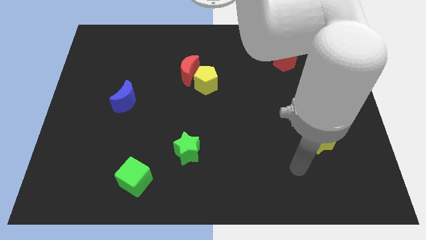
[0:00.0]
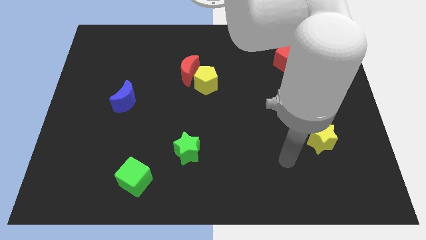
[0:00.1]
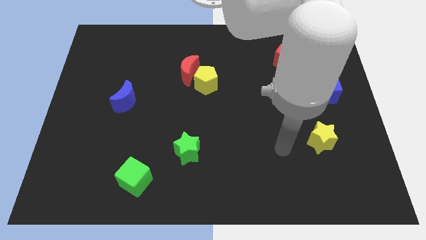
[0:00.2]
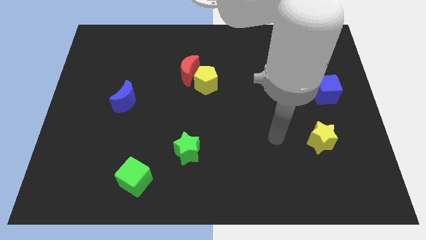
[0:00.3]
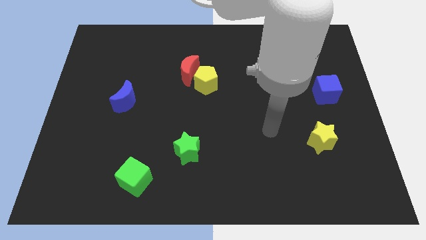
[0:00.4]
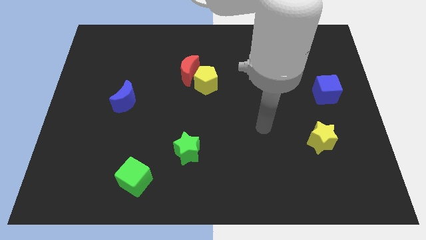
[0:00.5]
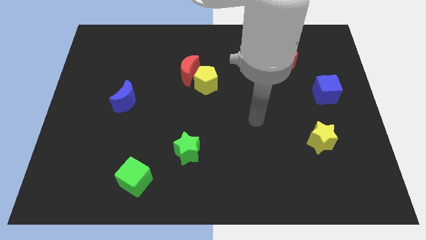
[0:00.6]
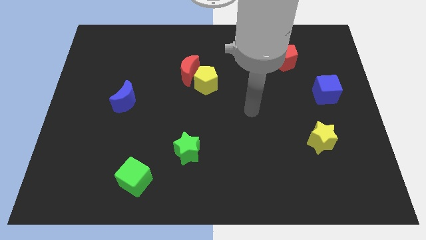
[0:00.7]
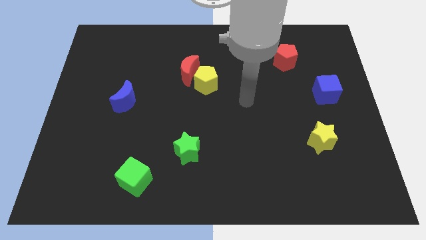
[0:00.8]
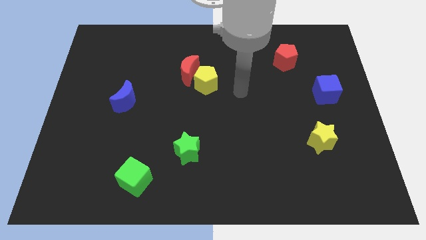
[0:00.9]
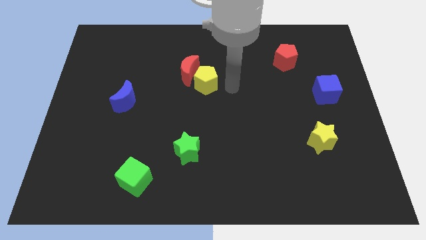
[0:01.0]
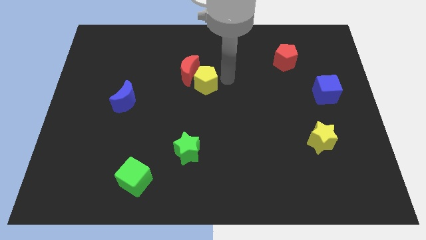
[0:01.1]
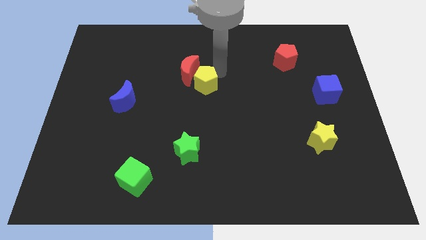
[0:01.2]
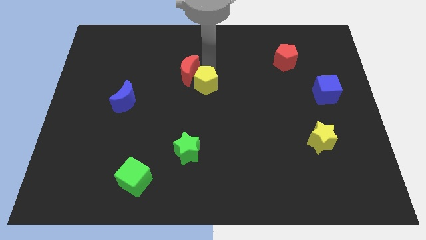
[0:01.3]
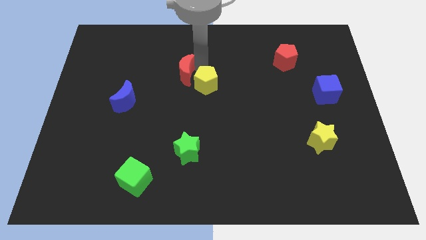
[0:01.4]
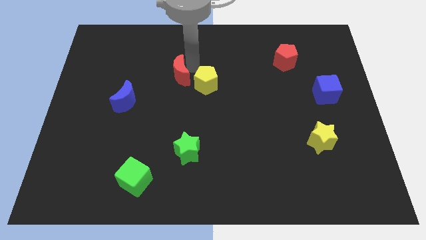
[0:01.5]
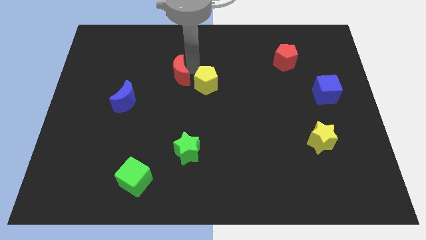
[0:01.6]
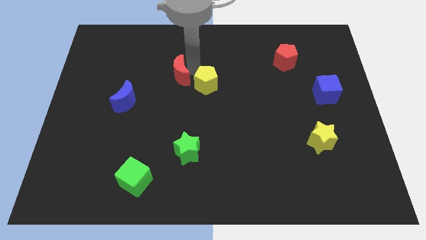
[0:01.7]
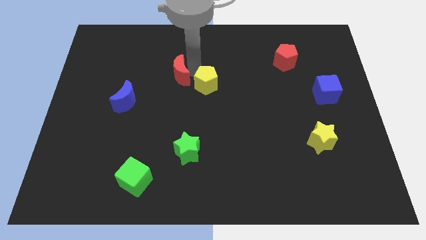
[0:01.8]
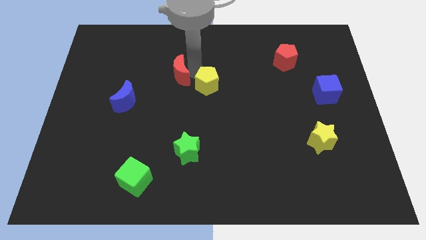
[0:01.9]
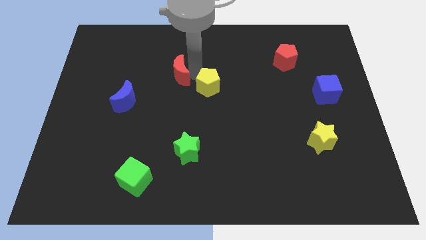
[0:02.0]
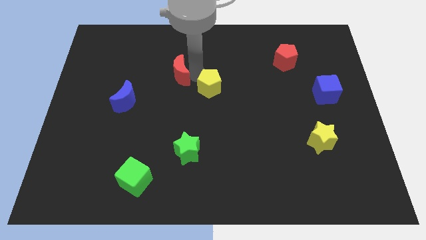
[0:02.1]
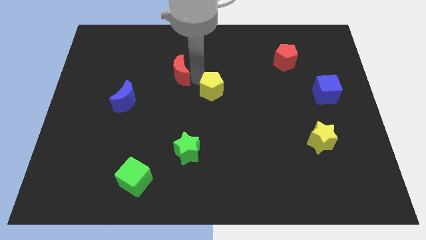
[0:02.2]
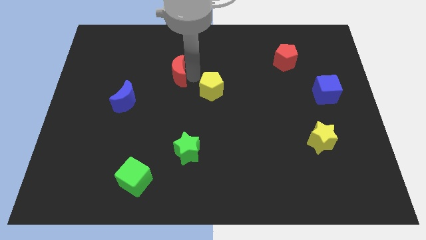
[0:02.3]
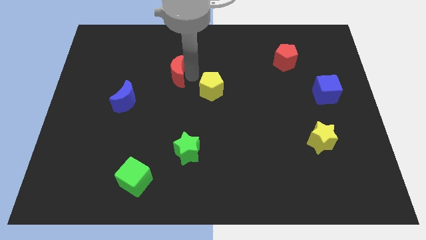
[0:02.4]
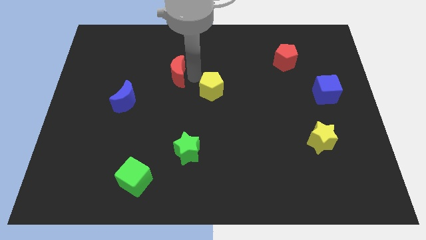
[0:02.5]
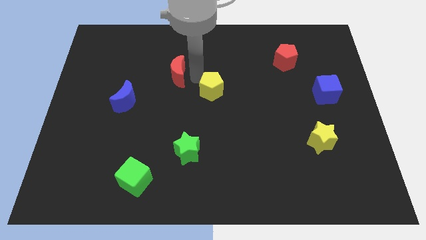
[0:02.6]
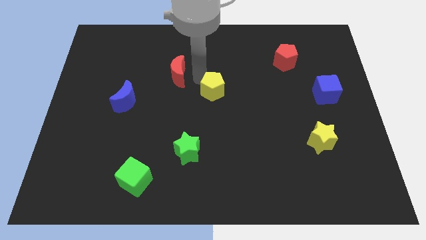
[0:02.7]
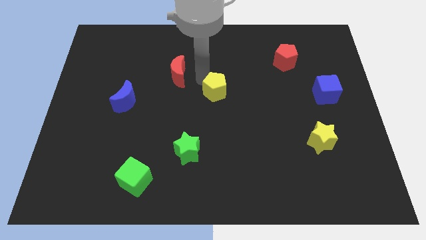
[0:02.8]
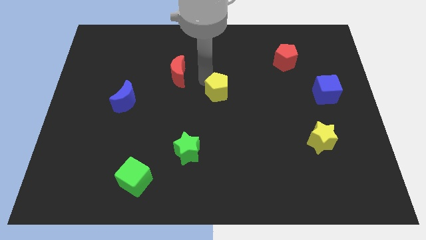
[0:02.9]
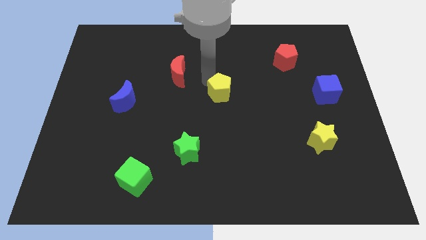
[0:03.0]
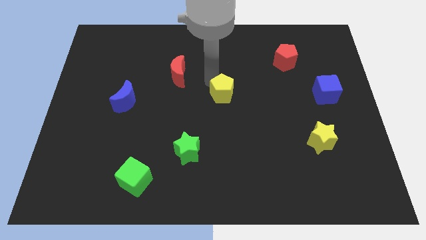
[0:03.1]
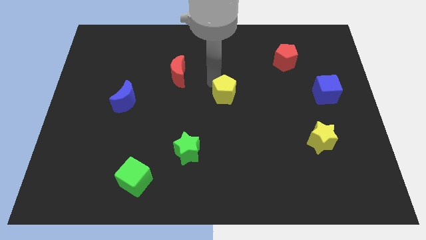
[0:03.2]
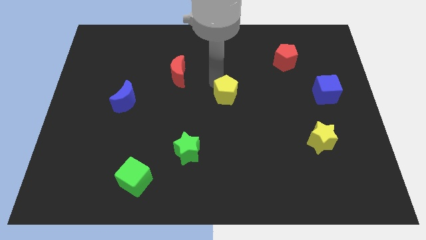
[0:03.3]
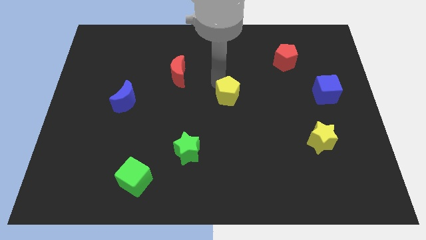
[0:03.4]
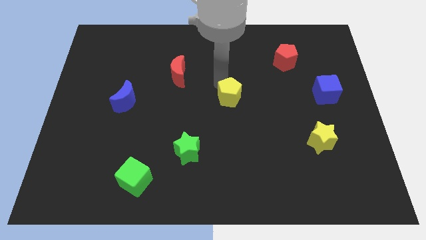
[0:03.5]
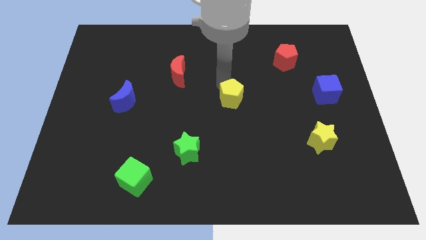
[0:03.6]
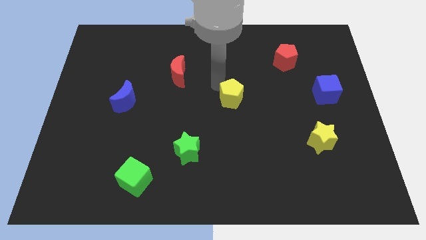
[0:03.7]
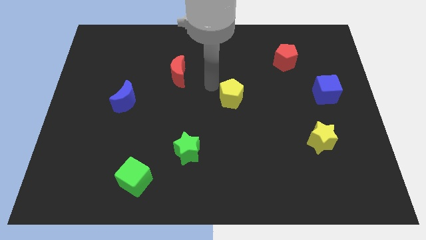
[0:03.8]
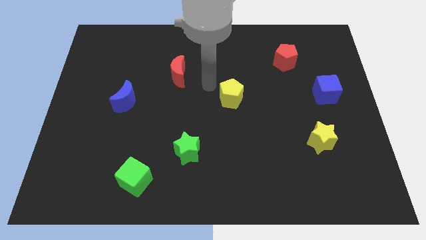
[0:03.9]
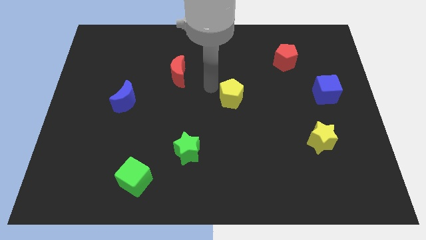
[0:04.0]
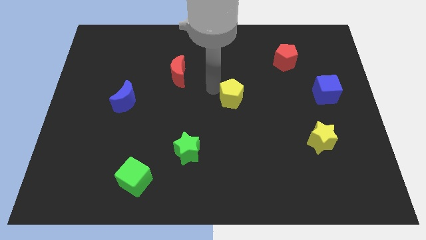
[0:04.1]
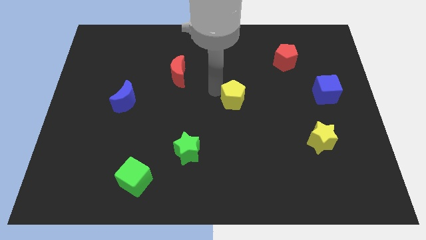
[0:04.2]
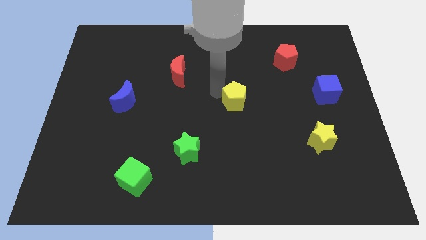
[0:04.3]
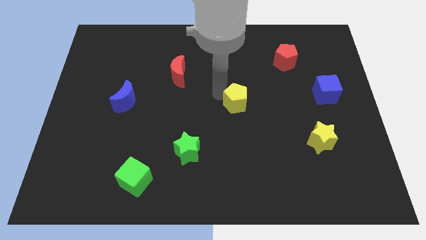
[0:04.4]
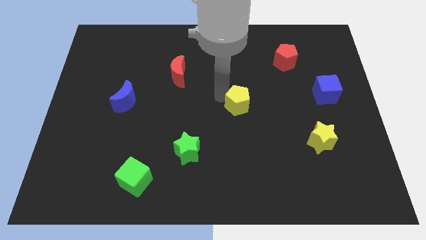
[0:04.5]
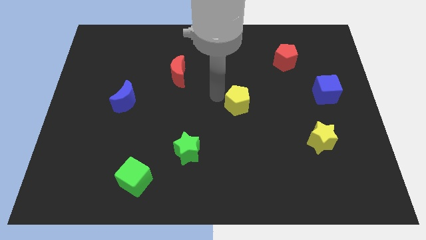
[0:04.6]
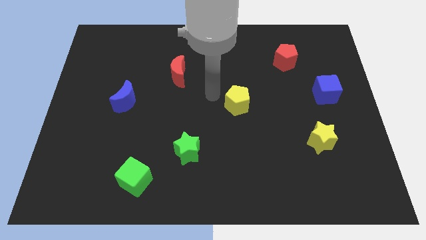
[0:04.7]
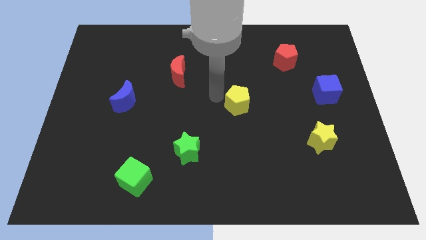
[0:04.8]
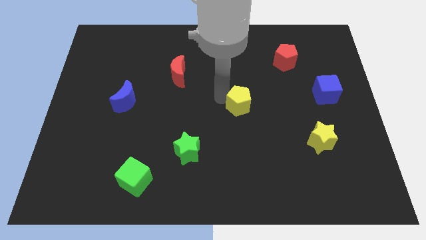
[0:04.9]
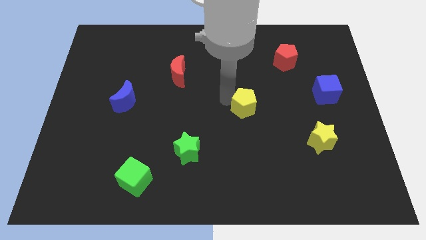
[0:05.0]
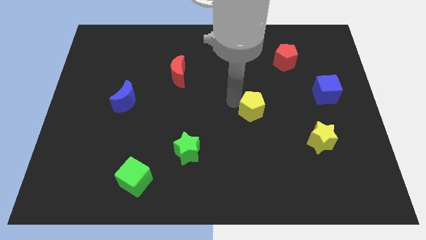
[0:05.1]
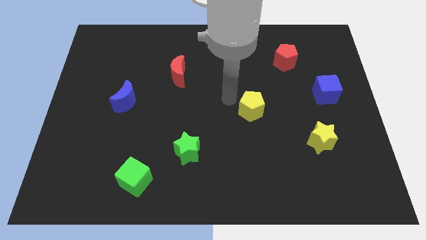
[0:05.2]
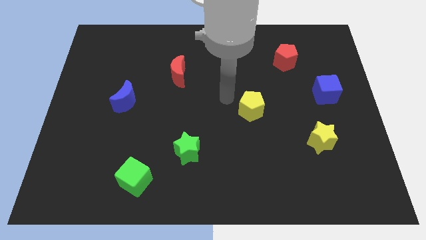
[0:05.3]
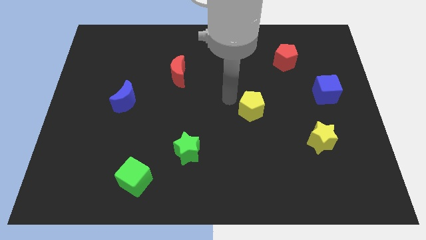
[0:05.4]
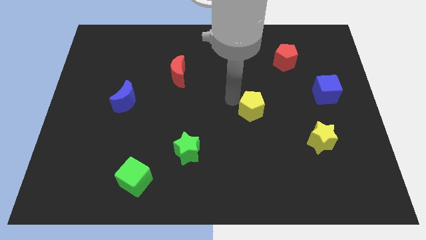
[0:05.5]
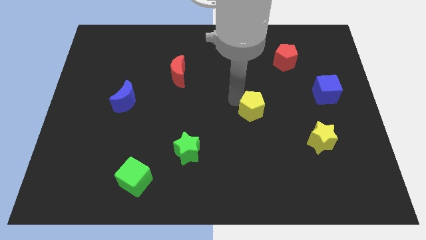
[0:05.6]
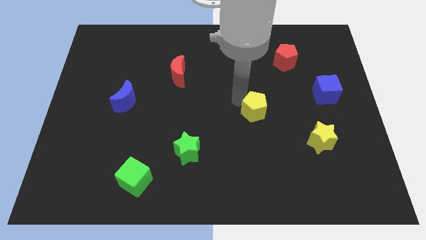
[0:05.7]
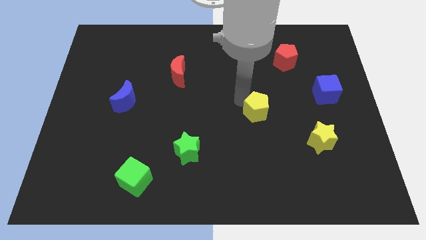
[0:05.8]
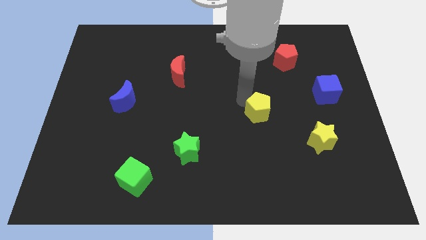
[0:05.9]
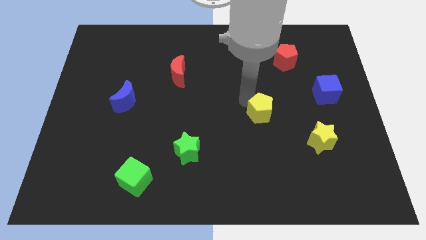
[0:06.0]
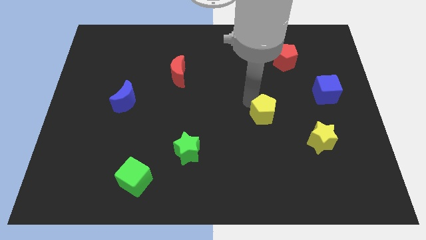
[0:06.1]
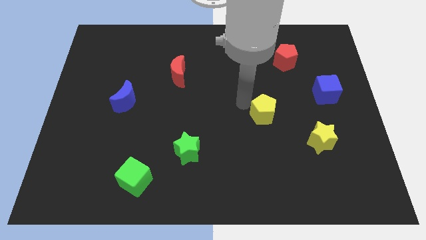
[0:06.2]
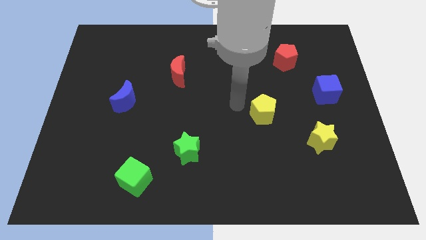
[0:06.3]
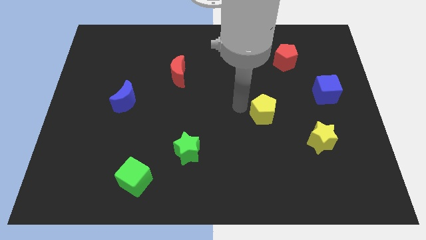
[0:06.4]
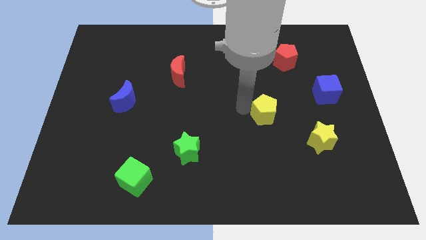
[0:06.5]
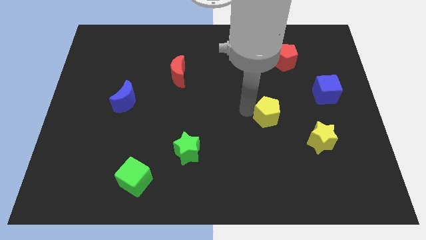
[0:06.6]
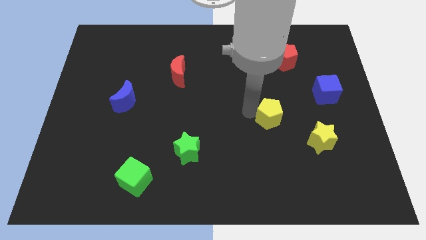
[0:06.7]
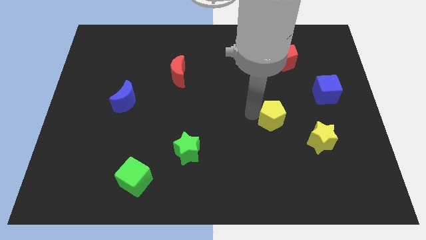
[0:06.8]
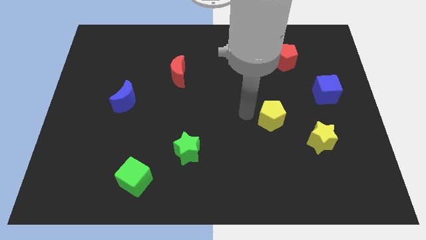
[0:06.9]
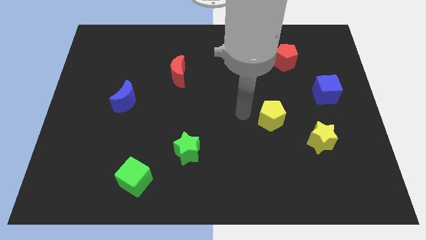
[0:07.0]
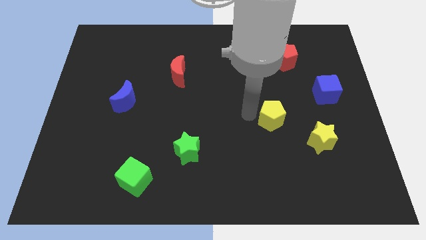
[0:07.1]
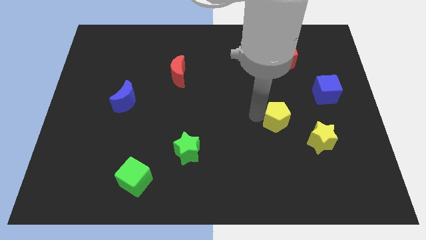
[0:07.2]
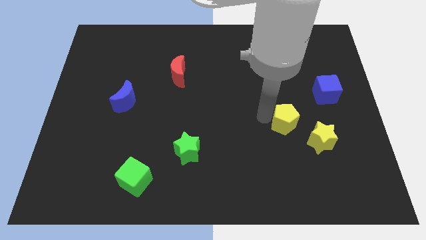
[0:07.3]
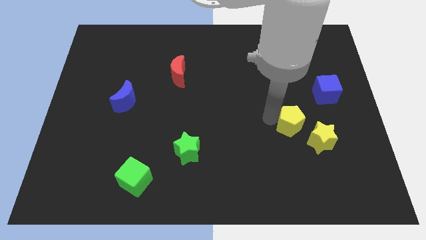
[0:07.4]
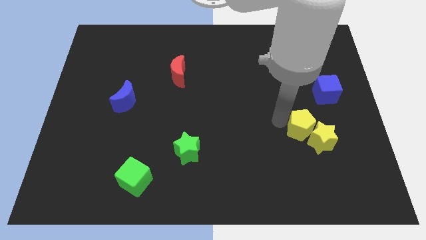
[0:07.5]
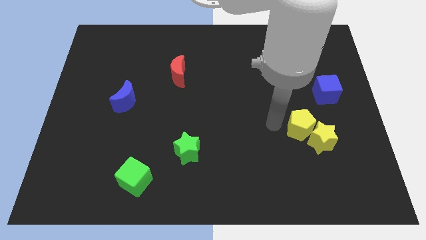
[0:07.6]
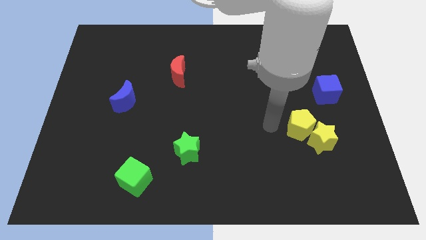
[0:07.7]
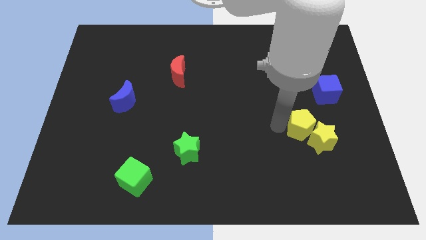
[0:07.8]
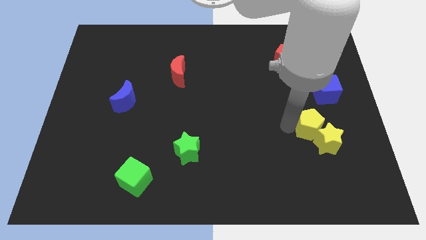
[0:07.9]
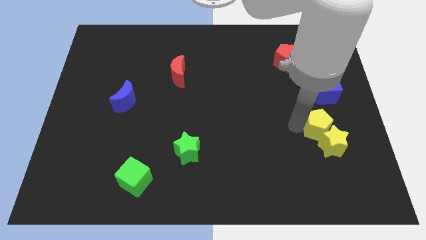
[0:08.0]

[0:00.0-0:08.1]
move the yellow pentagon to the bottom of the blue cube
